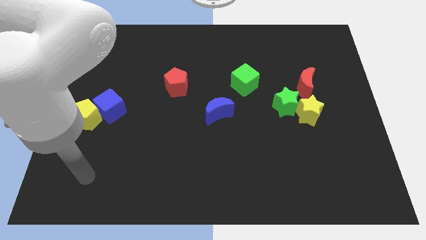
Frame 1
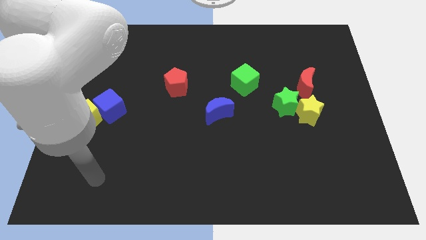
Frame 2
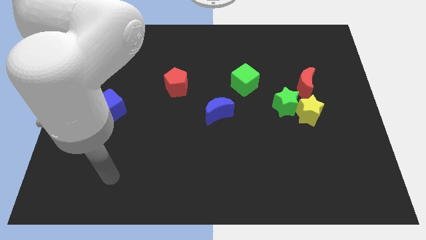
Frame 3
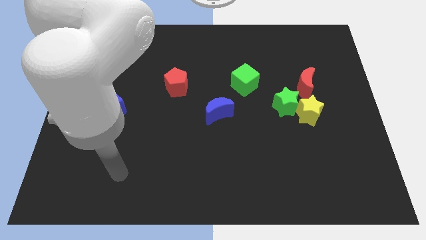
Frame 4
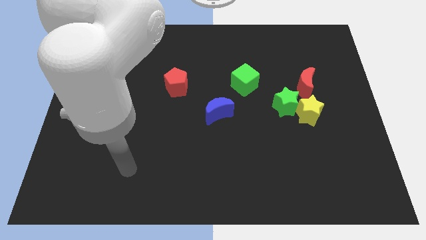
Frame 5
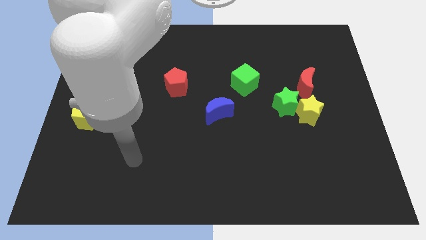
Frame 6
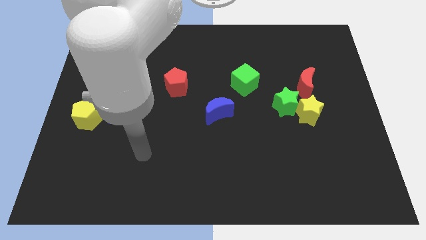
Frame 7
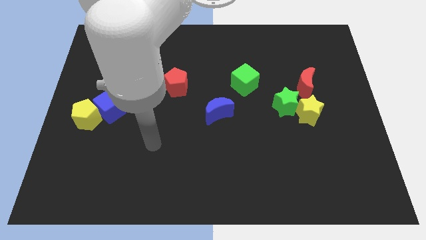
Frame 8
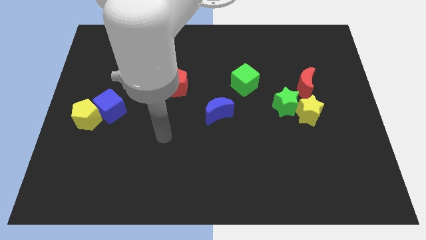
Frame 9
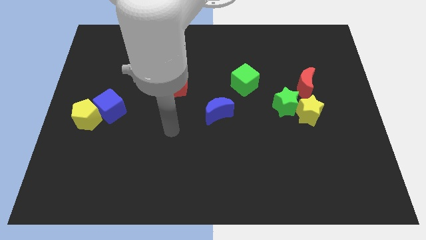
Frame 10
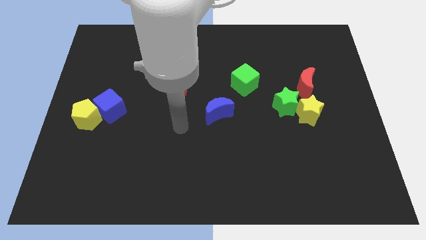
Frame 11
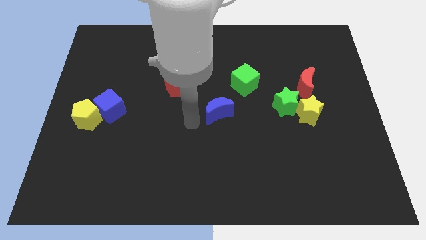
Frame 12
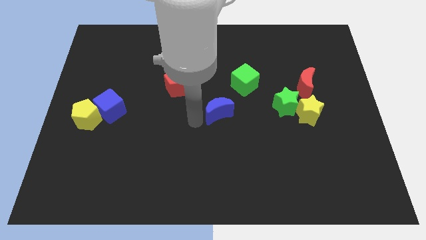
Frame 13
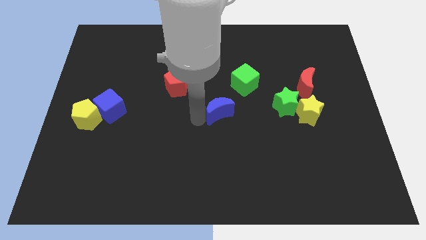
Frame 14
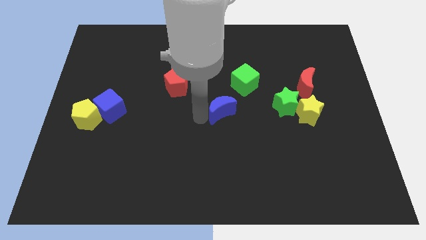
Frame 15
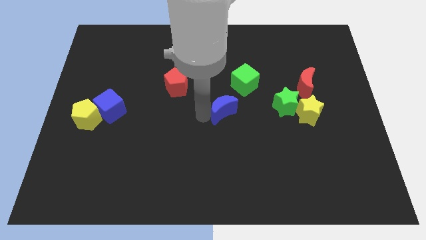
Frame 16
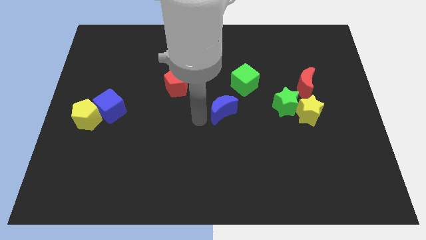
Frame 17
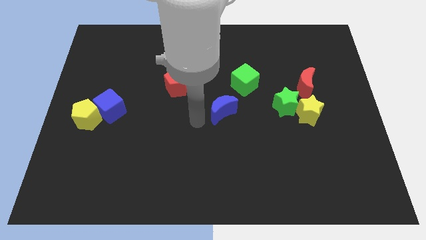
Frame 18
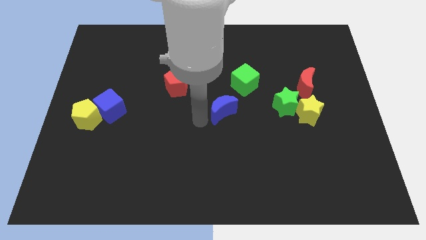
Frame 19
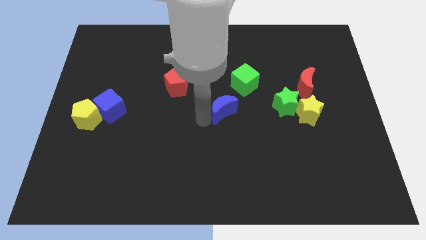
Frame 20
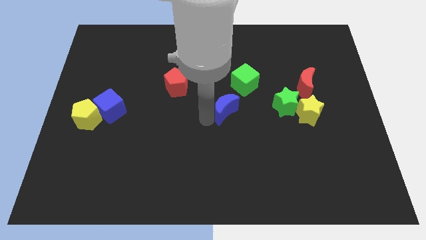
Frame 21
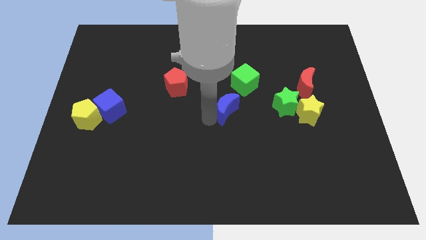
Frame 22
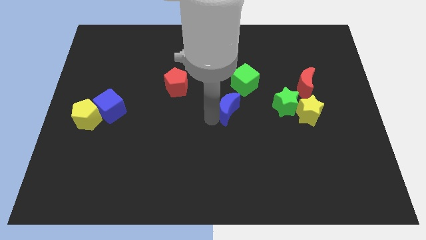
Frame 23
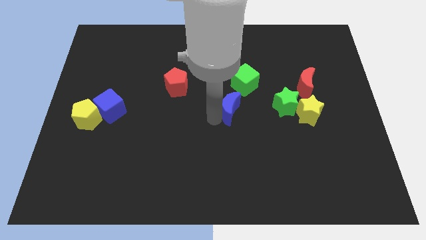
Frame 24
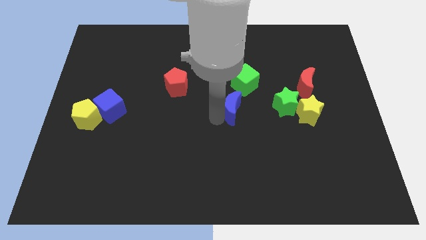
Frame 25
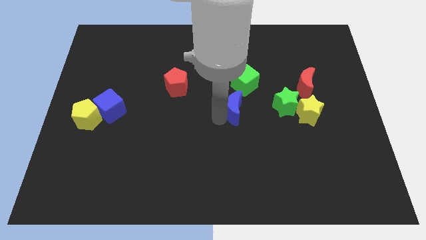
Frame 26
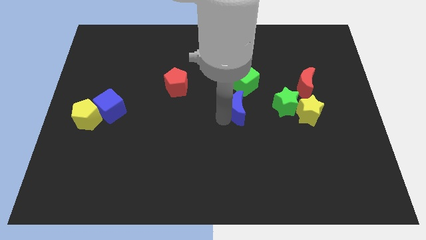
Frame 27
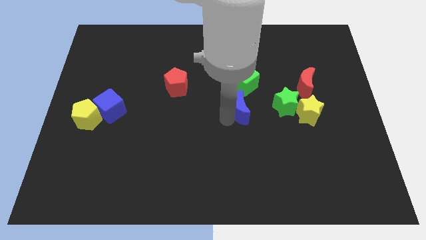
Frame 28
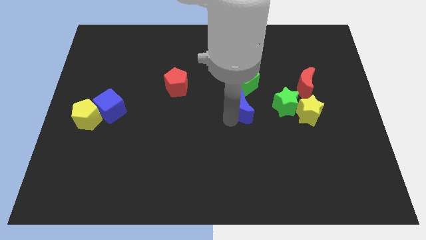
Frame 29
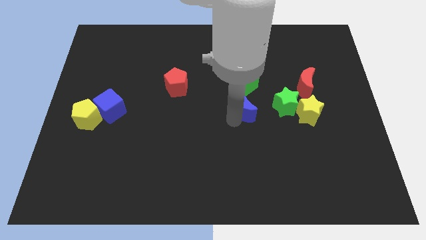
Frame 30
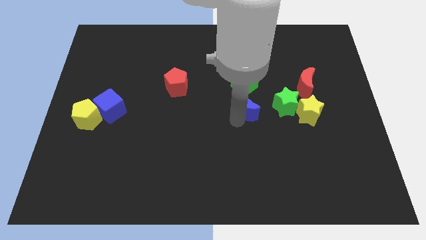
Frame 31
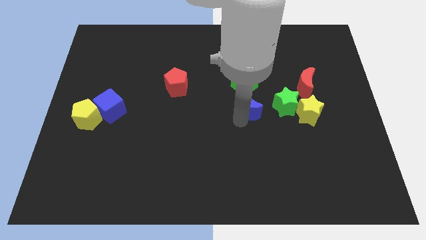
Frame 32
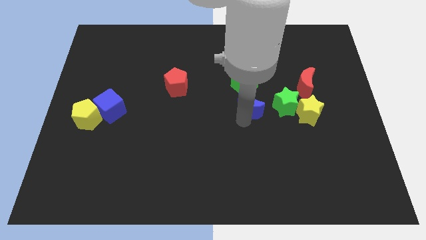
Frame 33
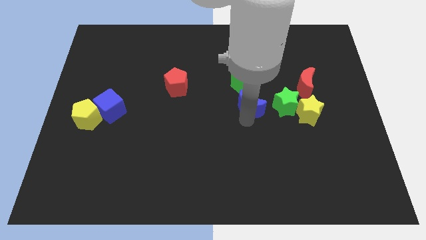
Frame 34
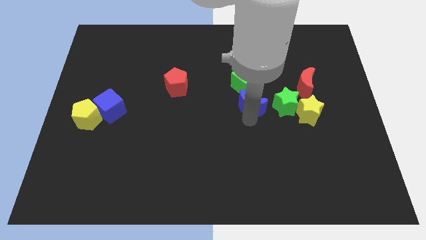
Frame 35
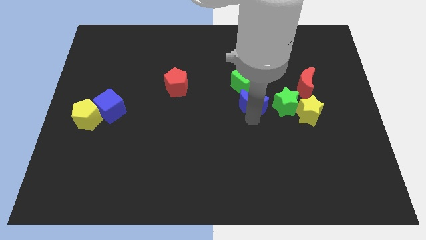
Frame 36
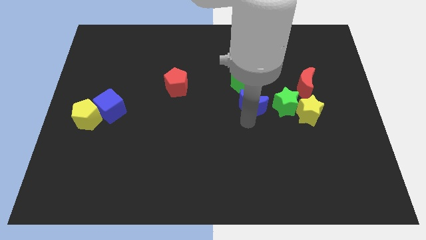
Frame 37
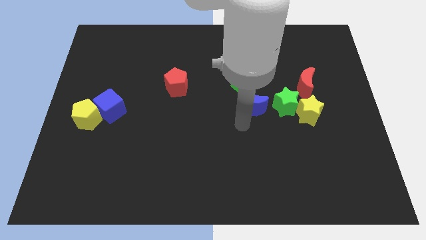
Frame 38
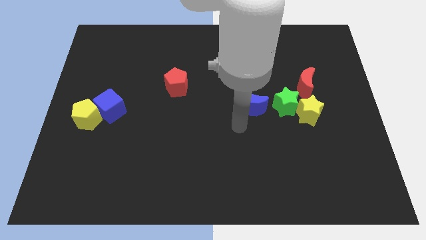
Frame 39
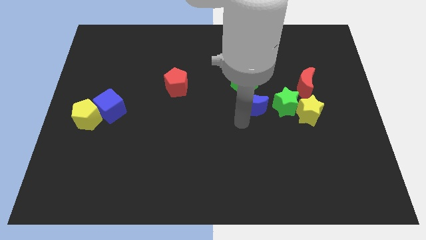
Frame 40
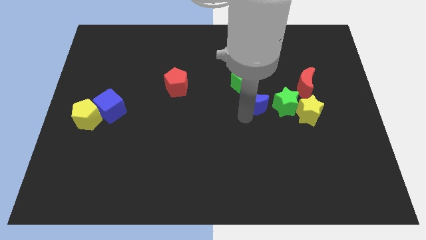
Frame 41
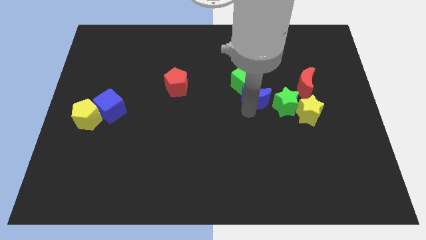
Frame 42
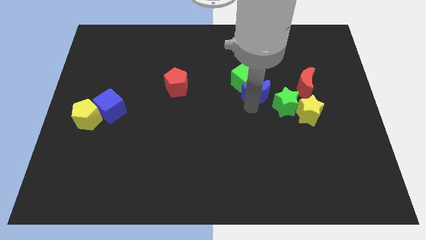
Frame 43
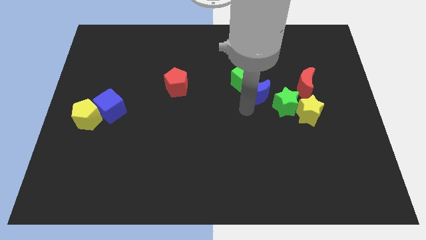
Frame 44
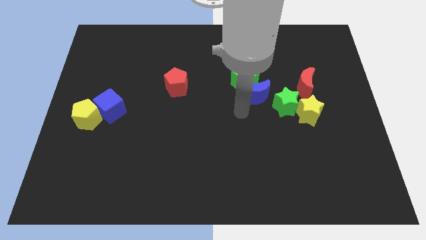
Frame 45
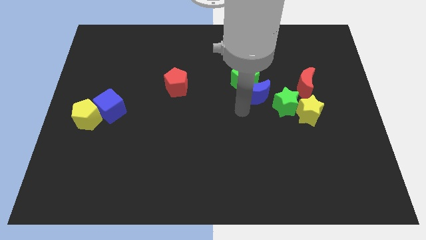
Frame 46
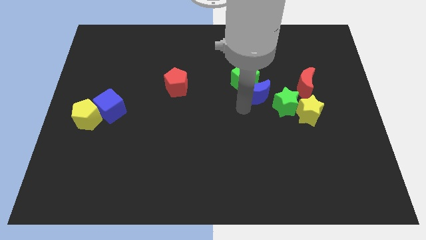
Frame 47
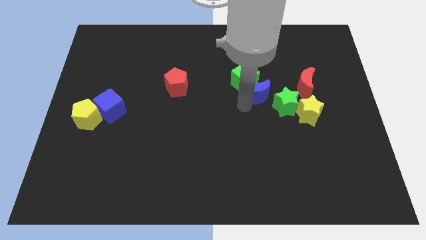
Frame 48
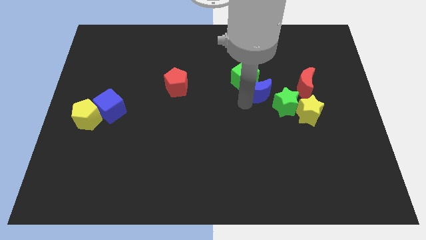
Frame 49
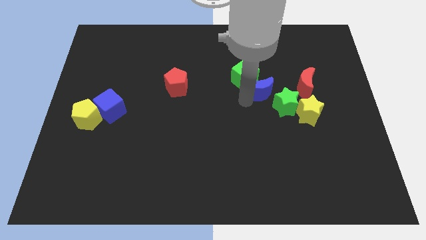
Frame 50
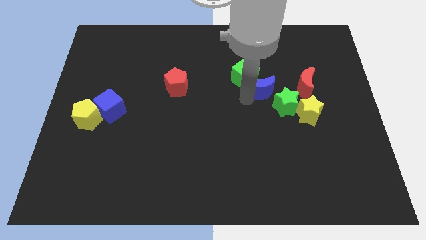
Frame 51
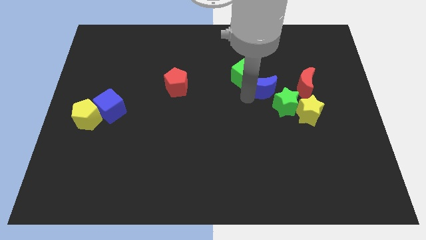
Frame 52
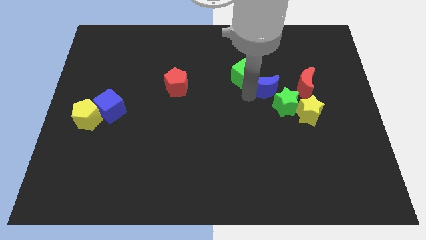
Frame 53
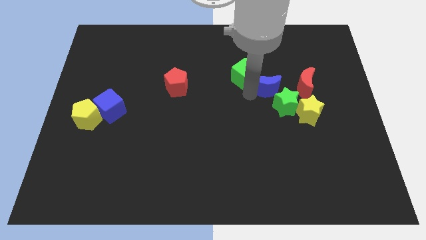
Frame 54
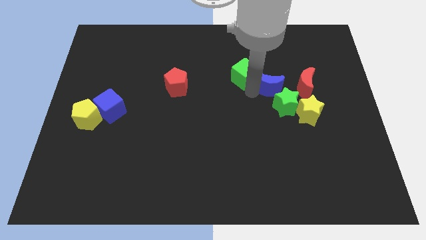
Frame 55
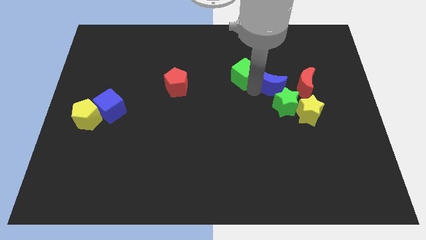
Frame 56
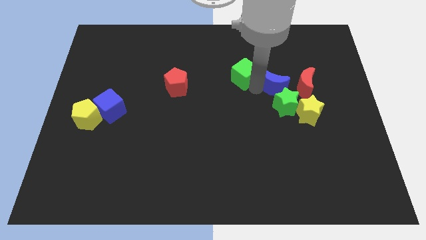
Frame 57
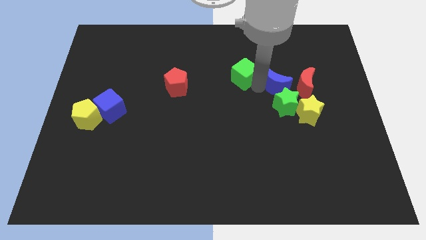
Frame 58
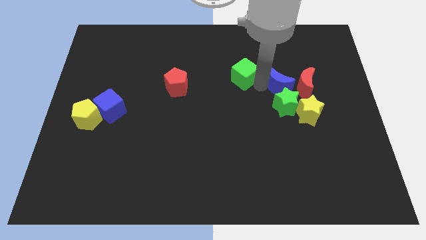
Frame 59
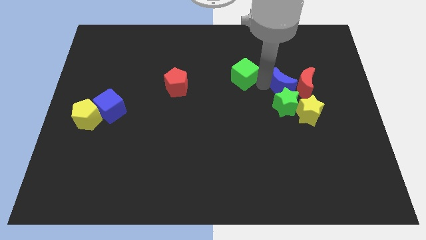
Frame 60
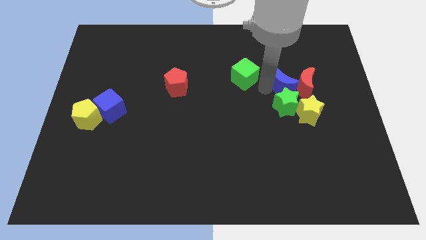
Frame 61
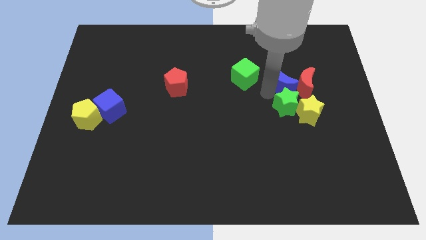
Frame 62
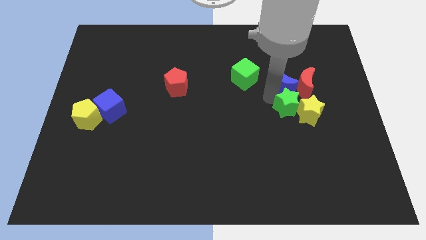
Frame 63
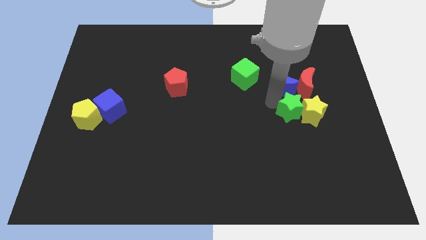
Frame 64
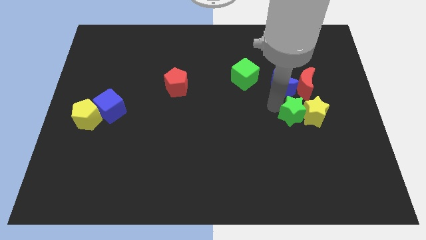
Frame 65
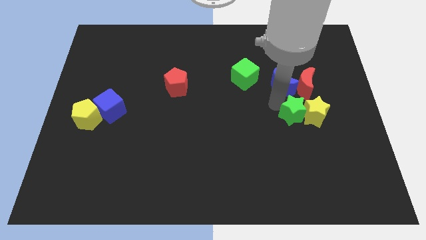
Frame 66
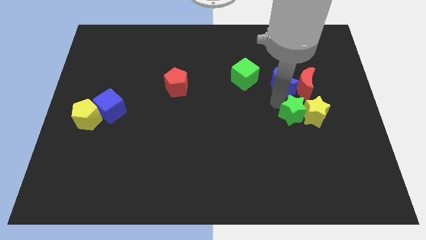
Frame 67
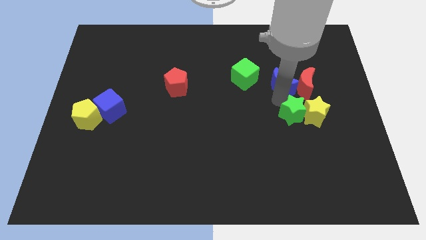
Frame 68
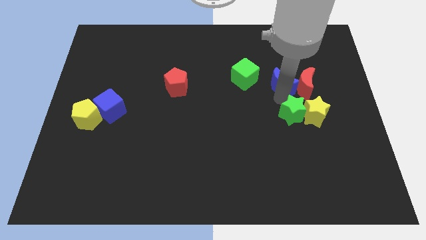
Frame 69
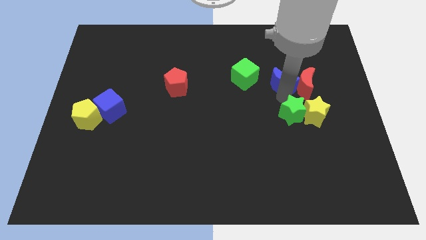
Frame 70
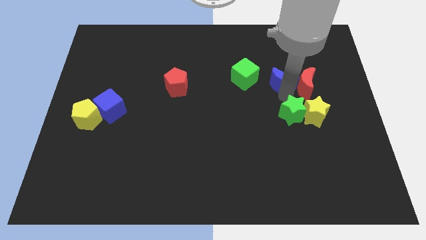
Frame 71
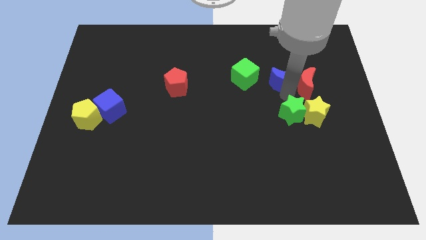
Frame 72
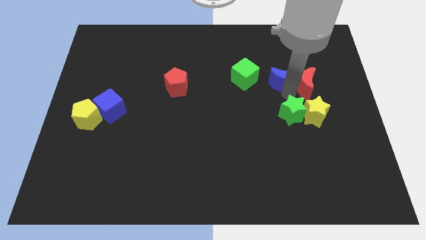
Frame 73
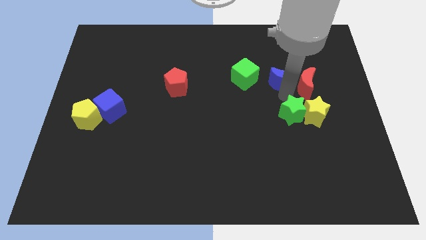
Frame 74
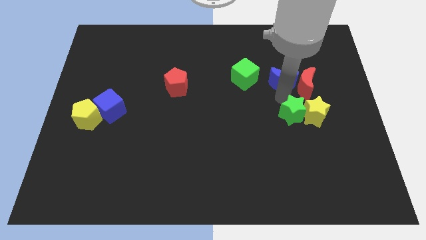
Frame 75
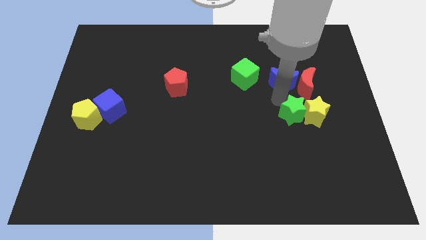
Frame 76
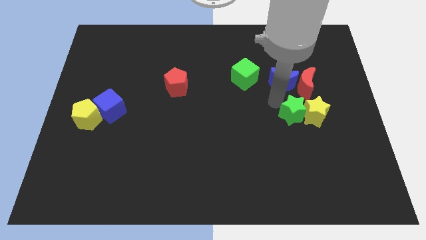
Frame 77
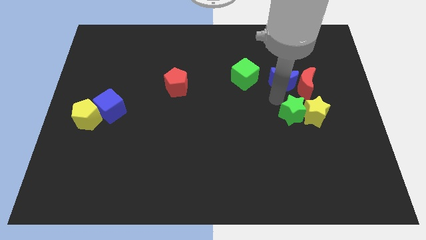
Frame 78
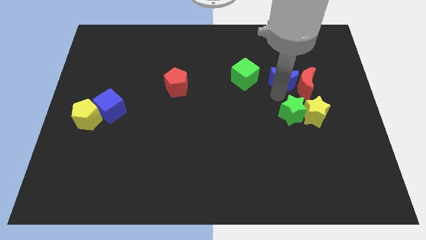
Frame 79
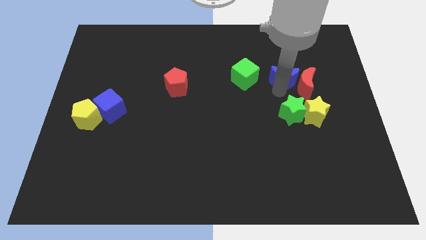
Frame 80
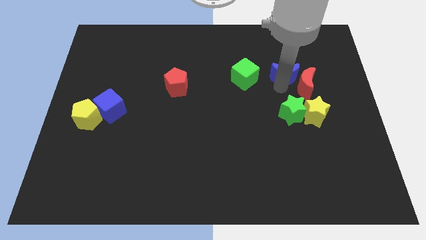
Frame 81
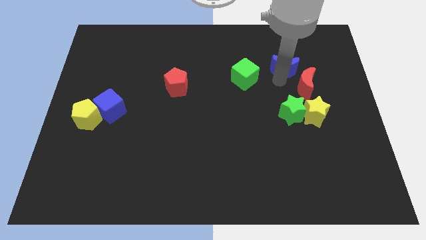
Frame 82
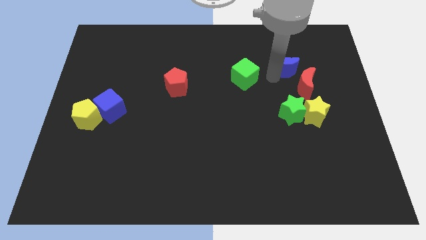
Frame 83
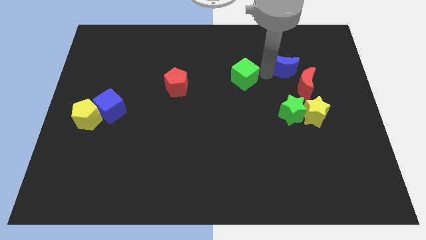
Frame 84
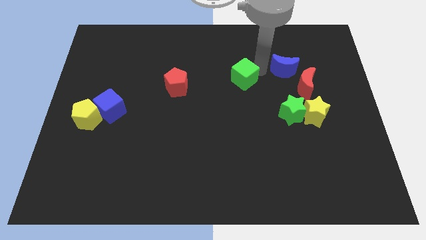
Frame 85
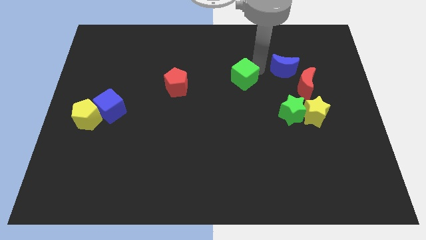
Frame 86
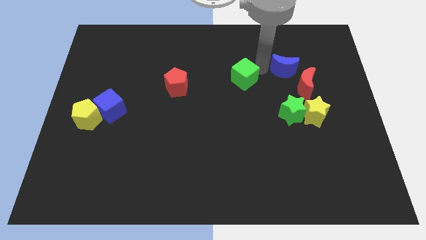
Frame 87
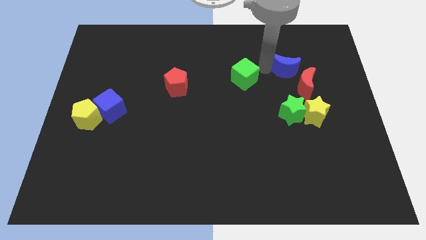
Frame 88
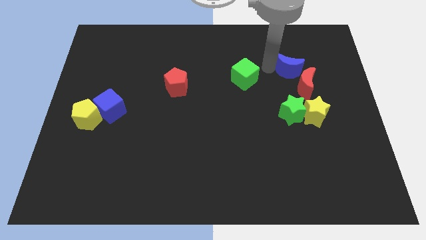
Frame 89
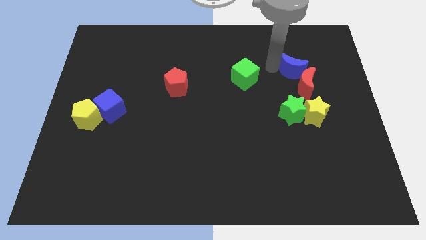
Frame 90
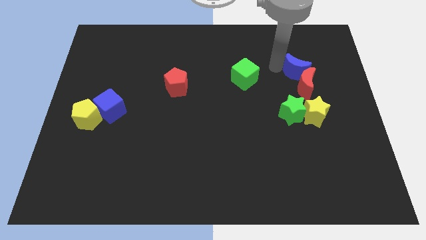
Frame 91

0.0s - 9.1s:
put the blue moon to the top right side of the red moon
